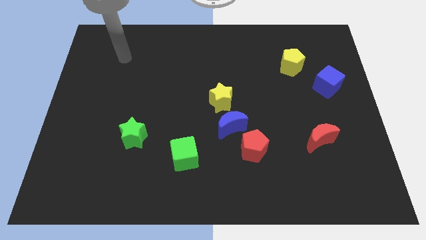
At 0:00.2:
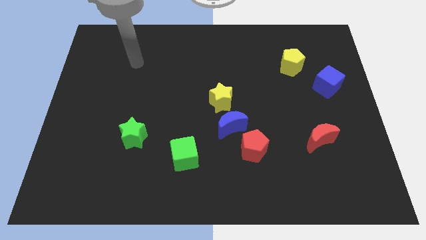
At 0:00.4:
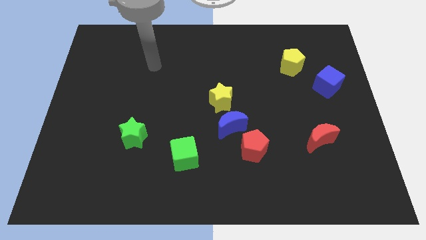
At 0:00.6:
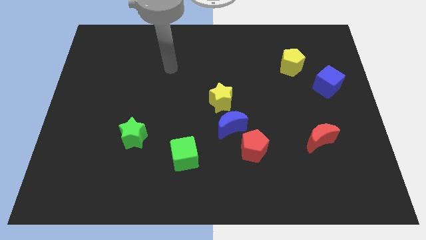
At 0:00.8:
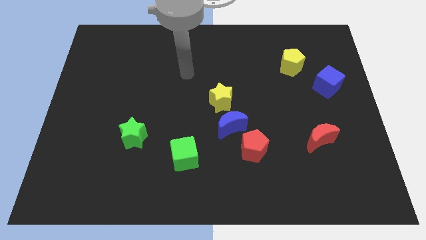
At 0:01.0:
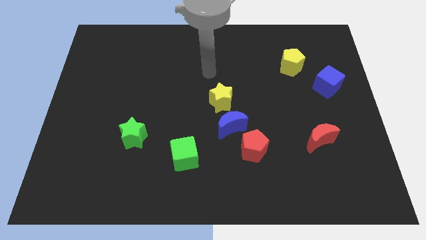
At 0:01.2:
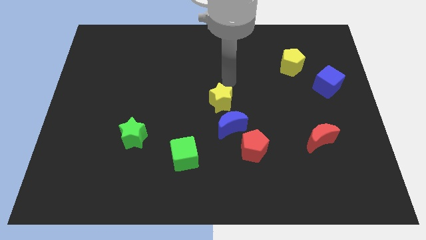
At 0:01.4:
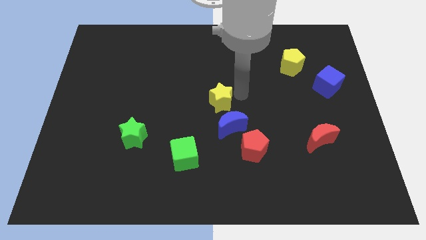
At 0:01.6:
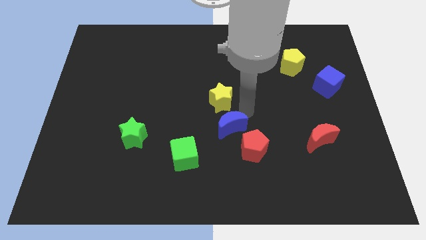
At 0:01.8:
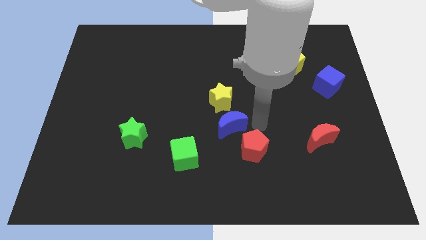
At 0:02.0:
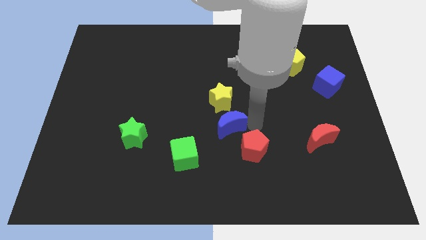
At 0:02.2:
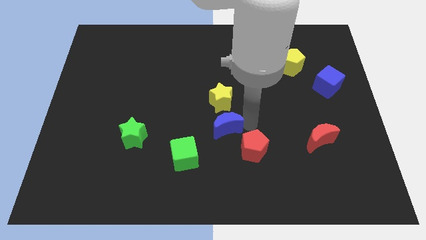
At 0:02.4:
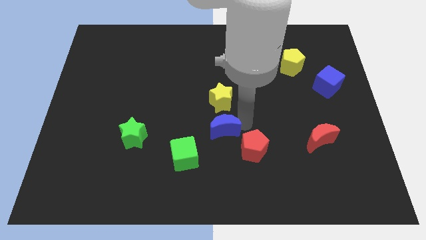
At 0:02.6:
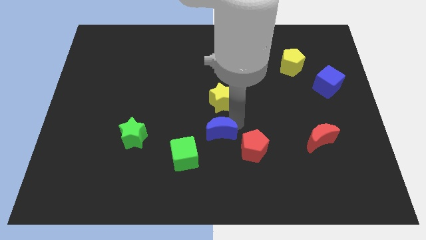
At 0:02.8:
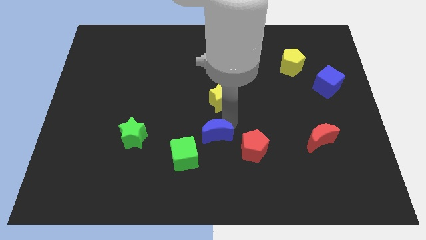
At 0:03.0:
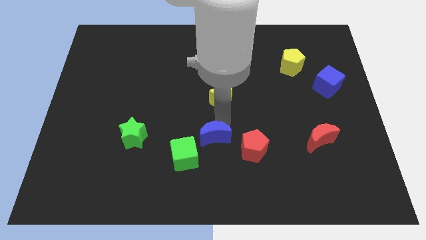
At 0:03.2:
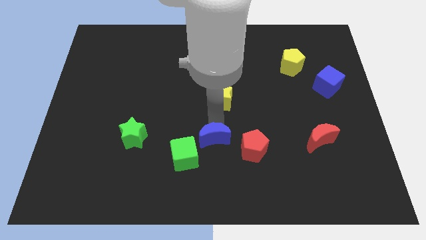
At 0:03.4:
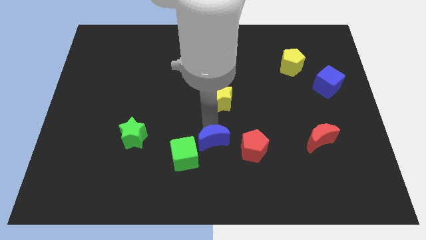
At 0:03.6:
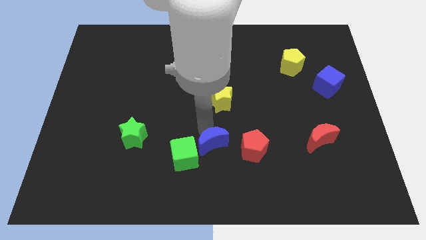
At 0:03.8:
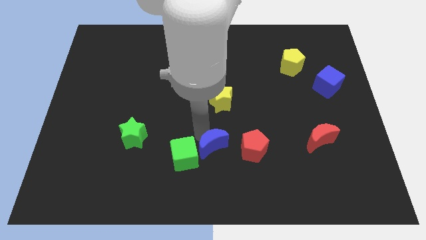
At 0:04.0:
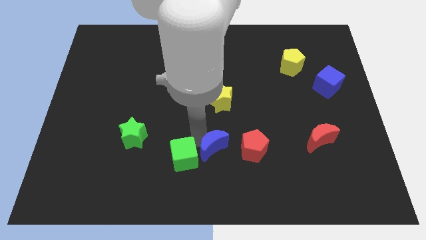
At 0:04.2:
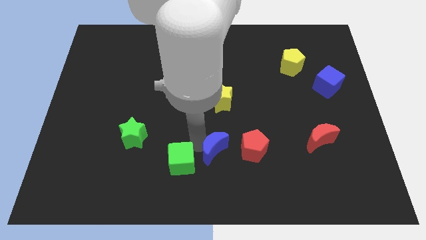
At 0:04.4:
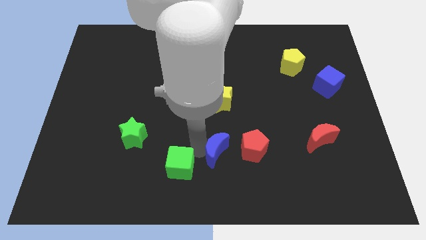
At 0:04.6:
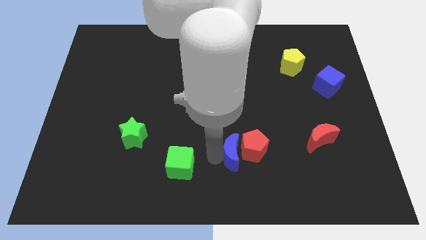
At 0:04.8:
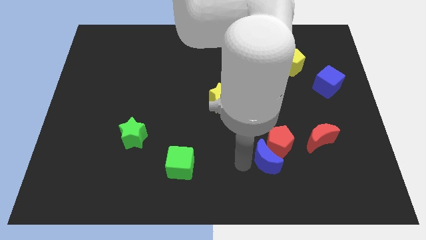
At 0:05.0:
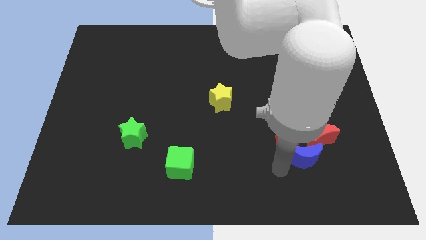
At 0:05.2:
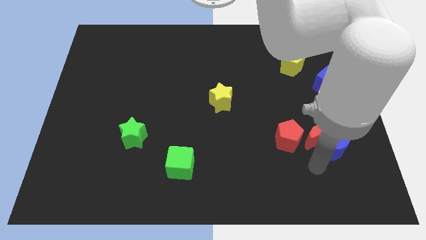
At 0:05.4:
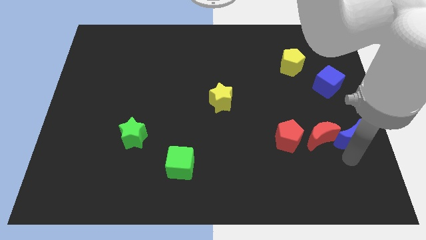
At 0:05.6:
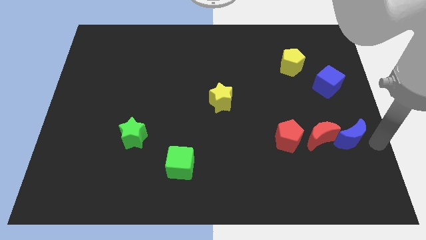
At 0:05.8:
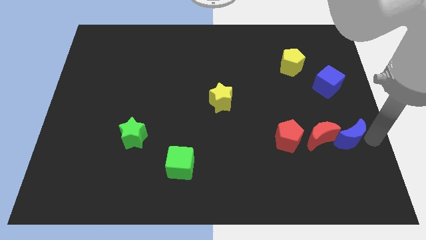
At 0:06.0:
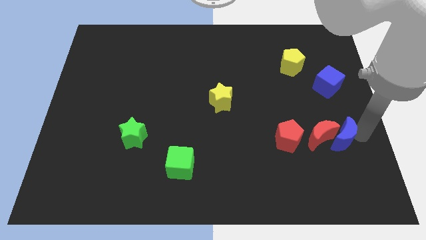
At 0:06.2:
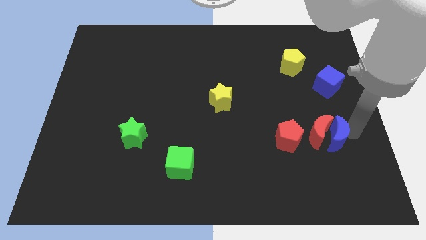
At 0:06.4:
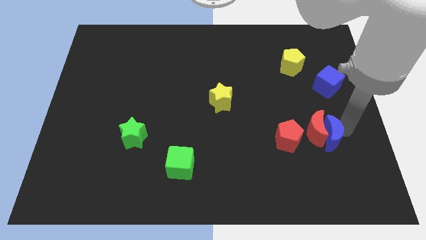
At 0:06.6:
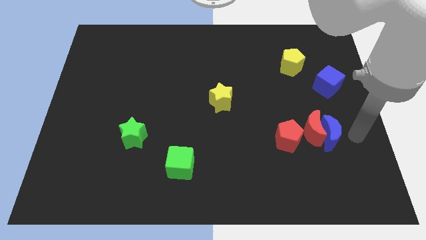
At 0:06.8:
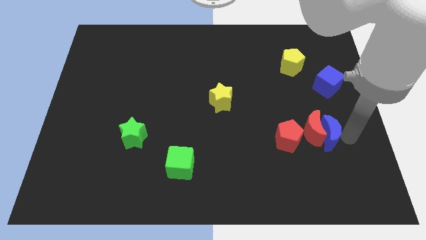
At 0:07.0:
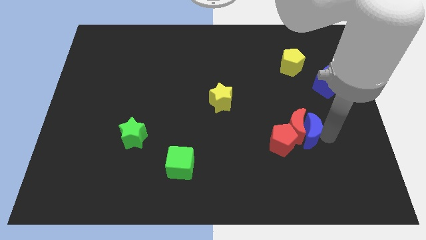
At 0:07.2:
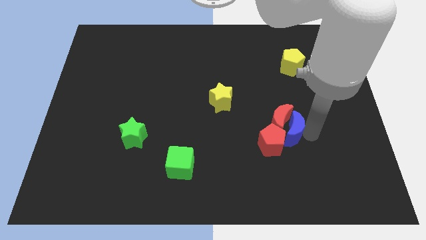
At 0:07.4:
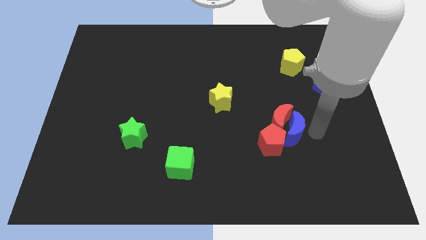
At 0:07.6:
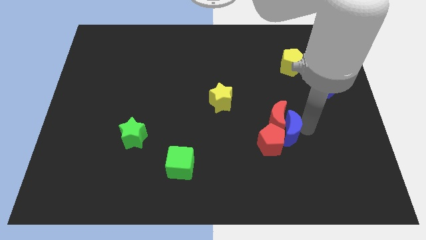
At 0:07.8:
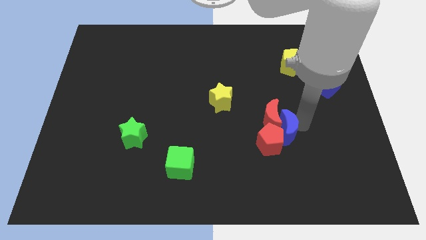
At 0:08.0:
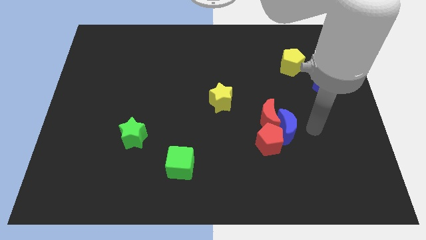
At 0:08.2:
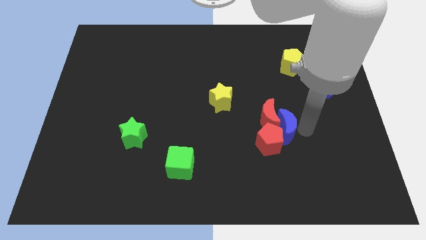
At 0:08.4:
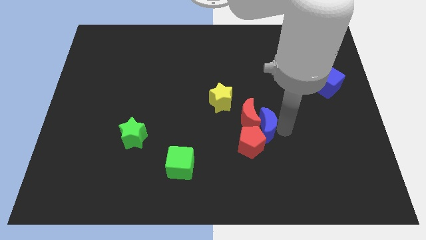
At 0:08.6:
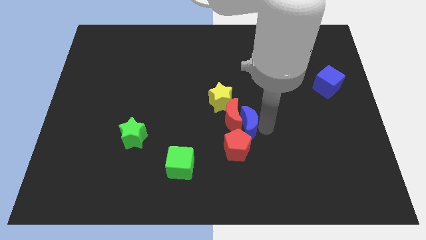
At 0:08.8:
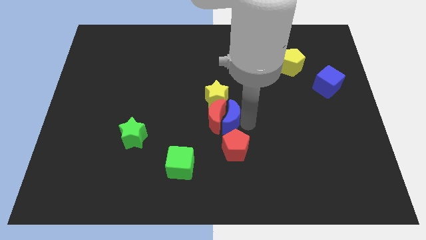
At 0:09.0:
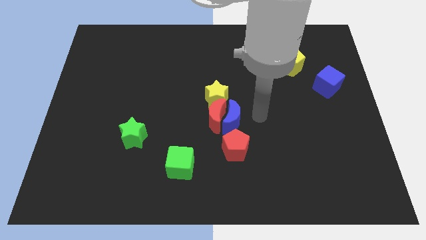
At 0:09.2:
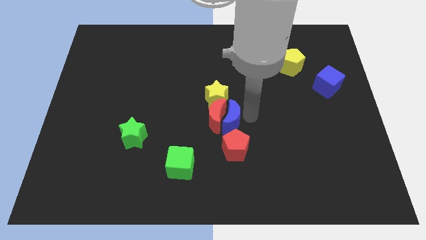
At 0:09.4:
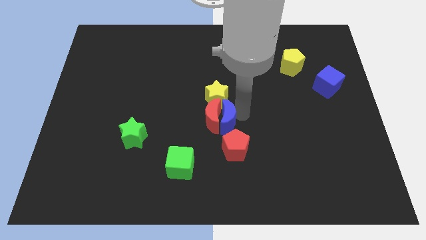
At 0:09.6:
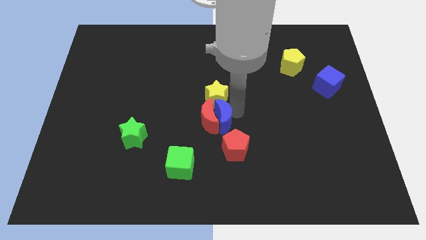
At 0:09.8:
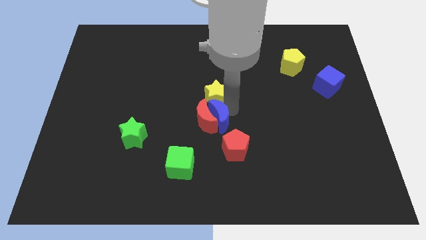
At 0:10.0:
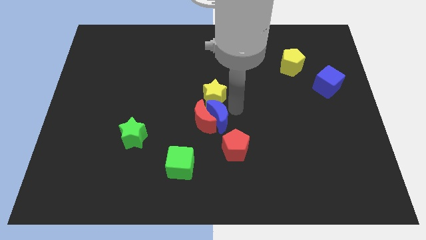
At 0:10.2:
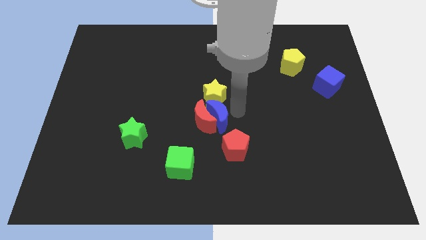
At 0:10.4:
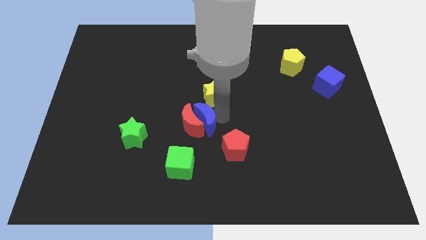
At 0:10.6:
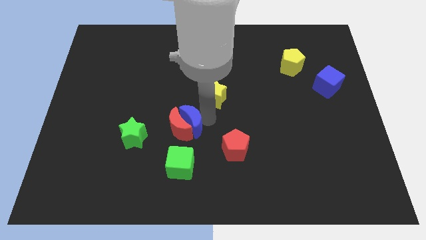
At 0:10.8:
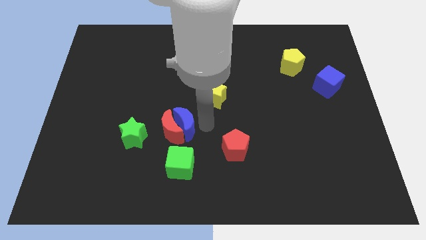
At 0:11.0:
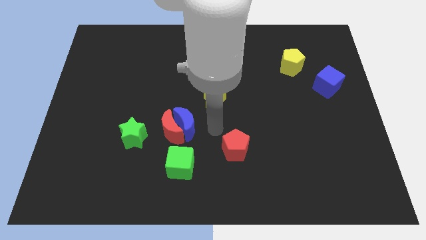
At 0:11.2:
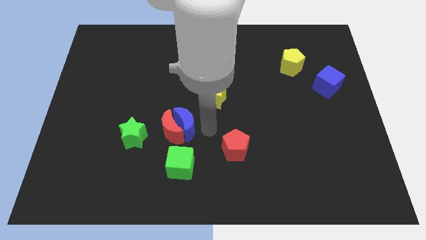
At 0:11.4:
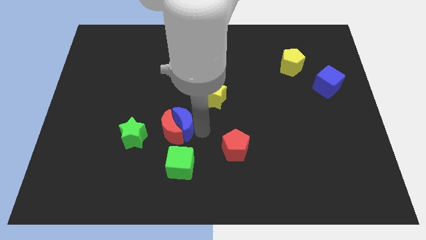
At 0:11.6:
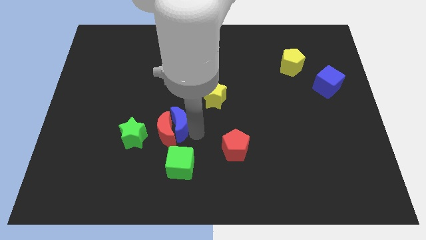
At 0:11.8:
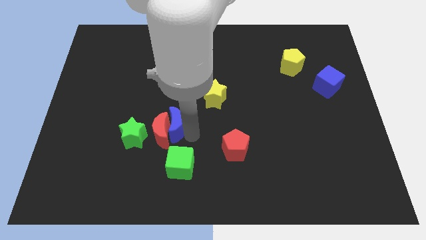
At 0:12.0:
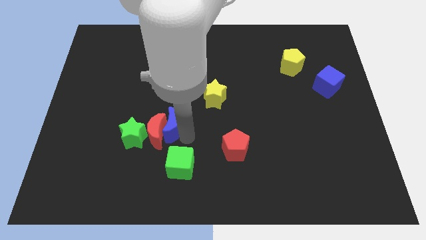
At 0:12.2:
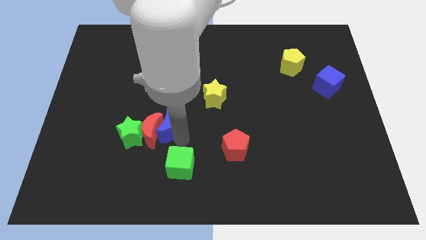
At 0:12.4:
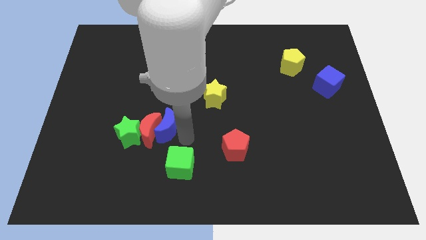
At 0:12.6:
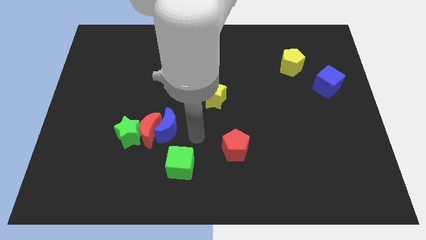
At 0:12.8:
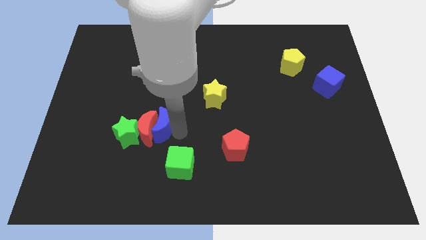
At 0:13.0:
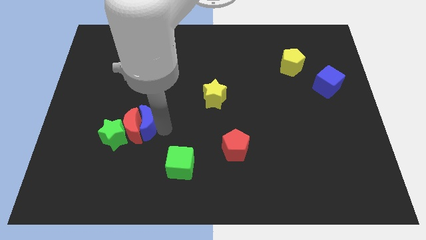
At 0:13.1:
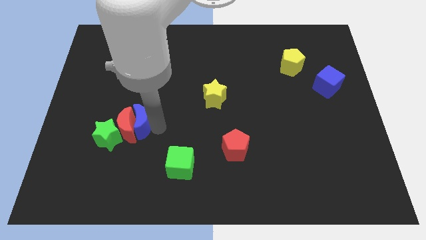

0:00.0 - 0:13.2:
slide the blue moon left

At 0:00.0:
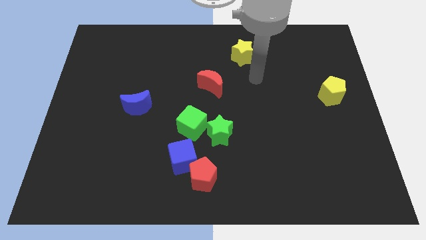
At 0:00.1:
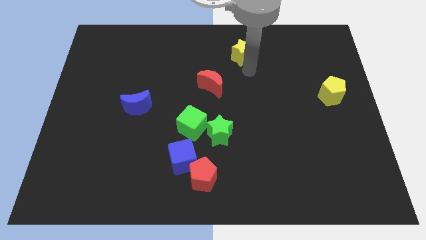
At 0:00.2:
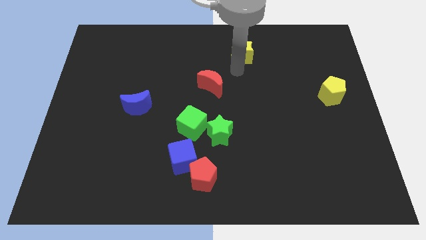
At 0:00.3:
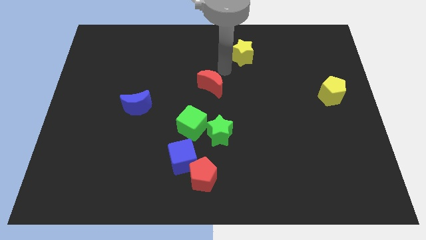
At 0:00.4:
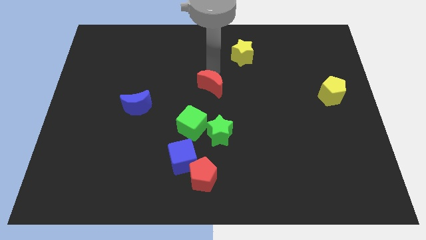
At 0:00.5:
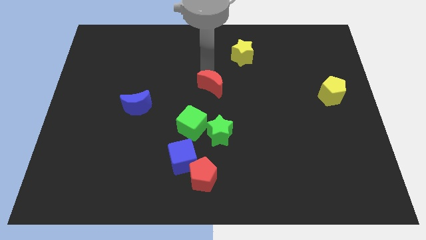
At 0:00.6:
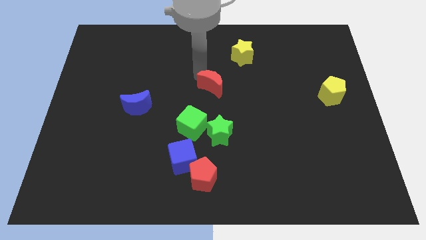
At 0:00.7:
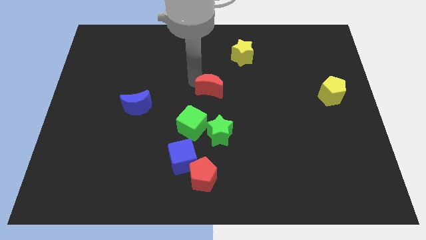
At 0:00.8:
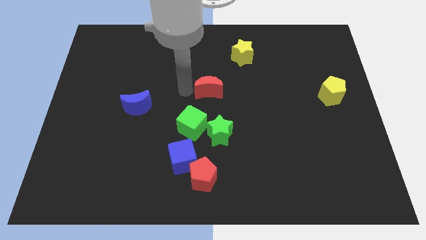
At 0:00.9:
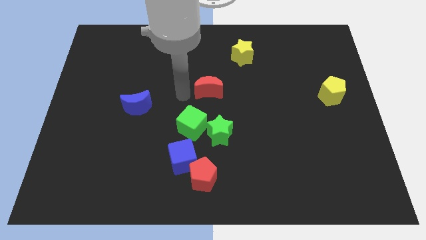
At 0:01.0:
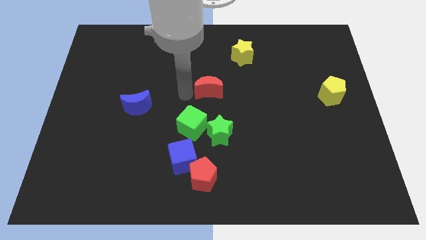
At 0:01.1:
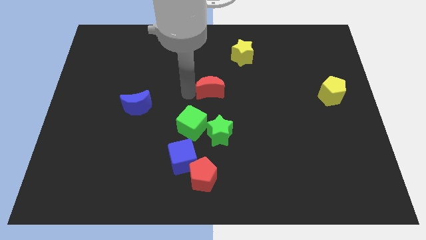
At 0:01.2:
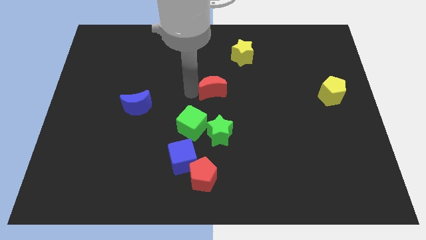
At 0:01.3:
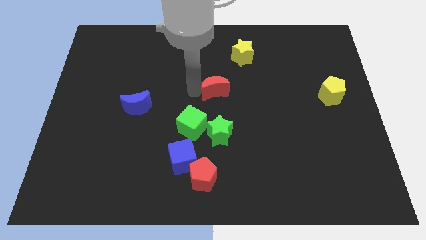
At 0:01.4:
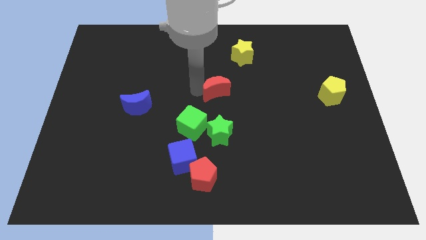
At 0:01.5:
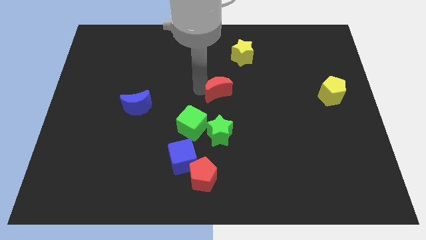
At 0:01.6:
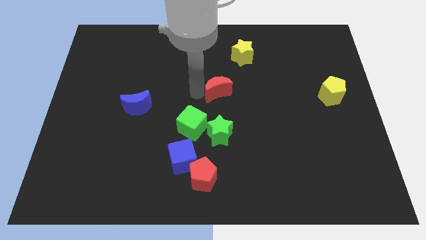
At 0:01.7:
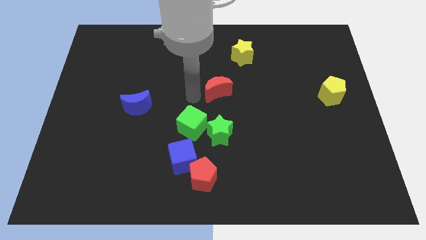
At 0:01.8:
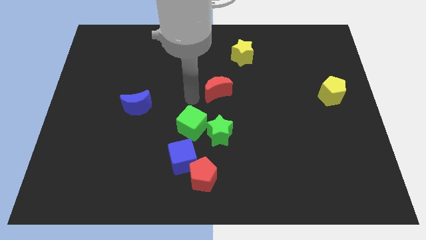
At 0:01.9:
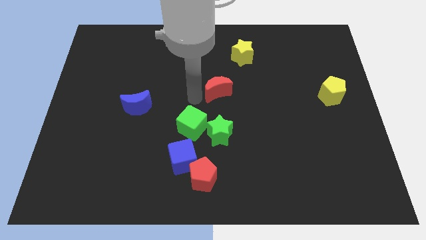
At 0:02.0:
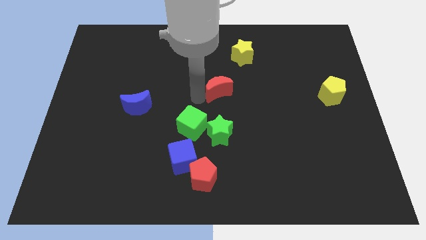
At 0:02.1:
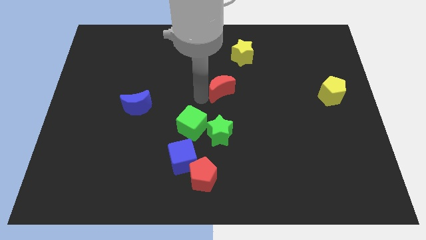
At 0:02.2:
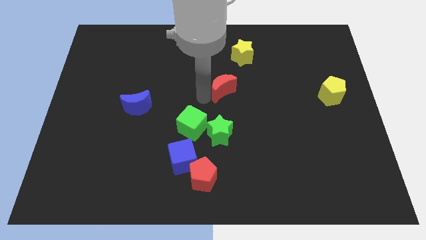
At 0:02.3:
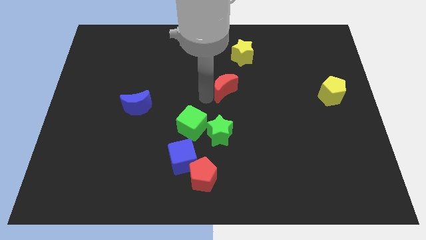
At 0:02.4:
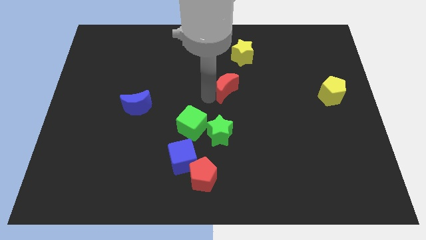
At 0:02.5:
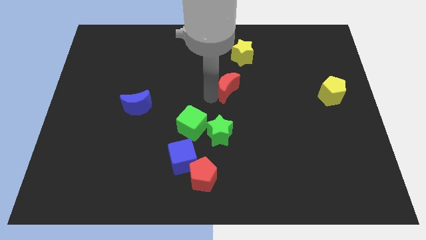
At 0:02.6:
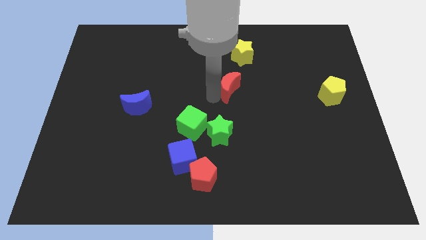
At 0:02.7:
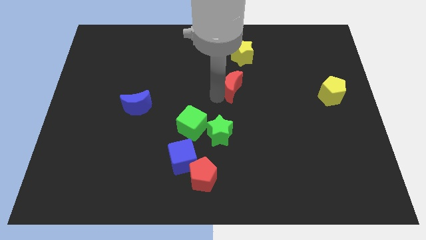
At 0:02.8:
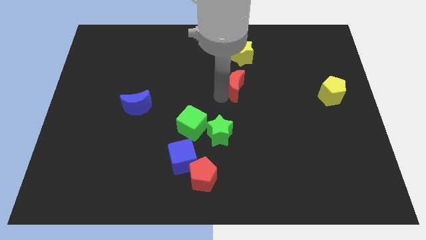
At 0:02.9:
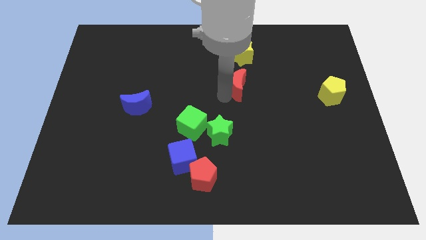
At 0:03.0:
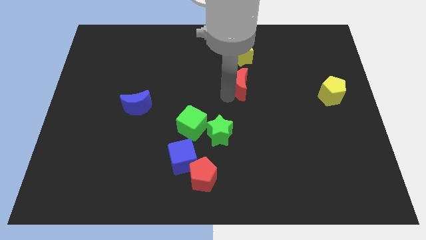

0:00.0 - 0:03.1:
slightly move the red moon right
